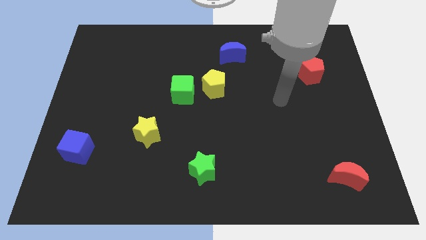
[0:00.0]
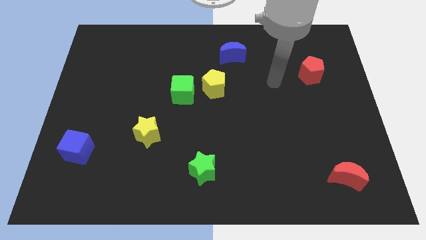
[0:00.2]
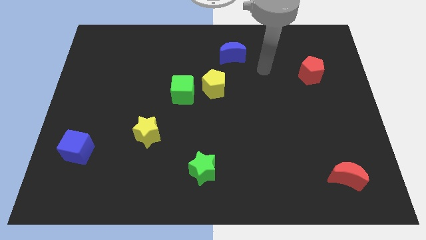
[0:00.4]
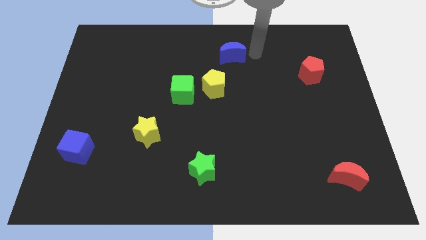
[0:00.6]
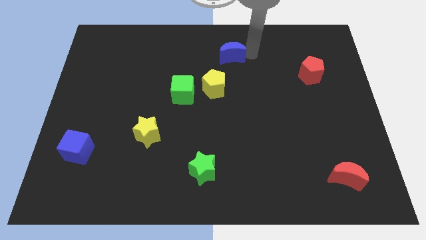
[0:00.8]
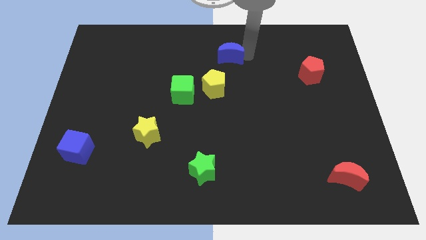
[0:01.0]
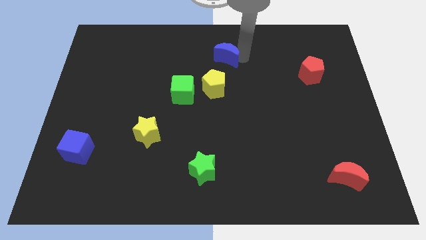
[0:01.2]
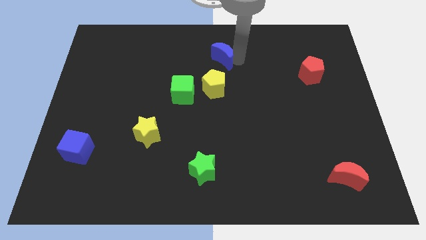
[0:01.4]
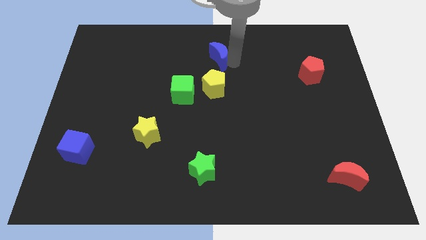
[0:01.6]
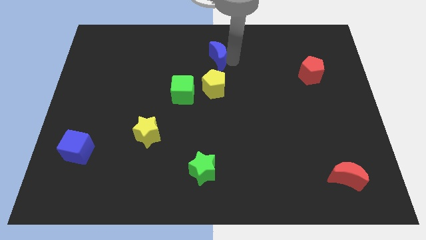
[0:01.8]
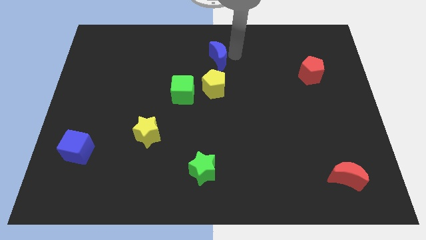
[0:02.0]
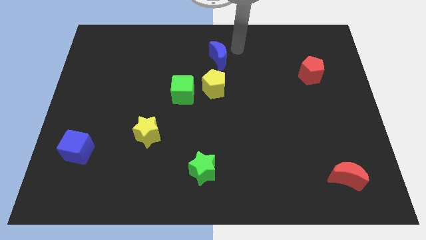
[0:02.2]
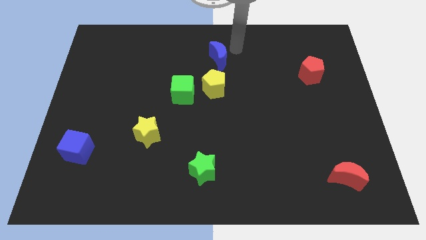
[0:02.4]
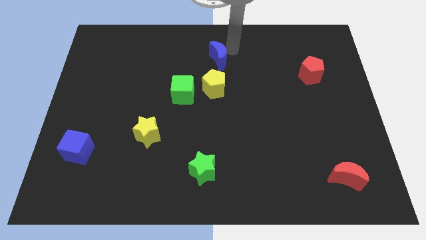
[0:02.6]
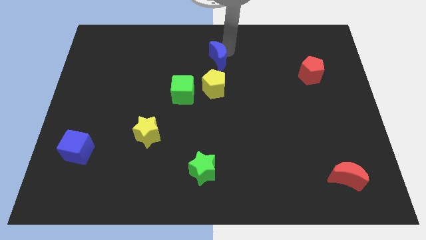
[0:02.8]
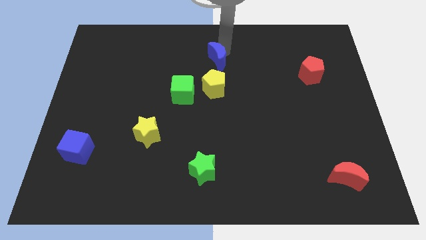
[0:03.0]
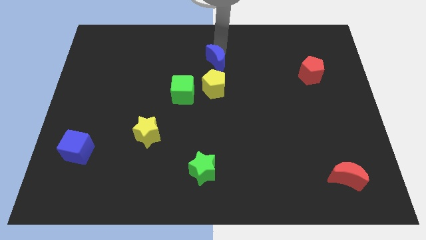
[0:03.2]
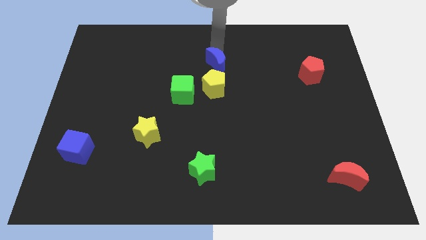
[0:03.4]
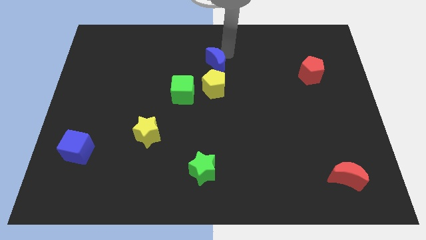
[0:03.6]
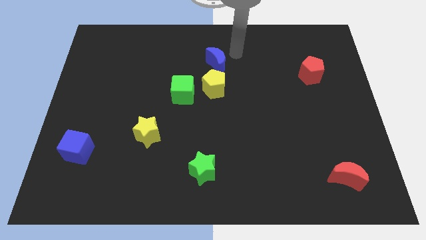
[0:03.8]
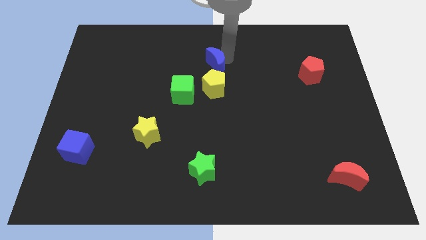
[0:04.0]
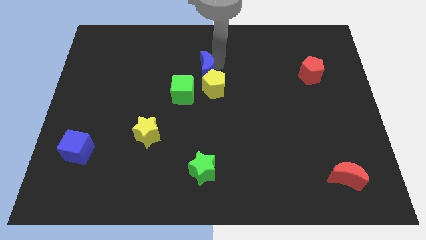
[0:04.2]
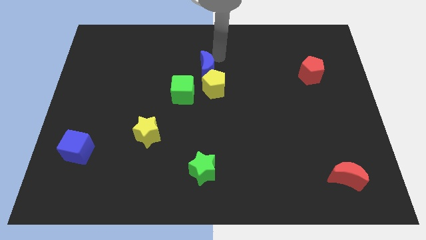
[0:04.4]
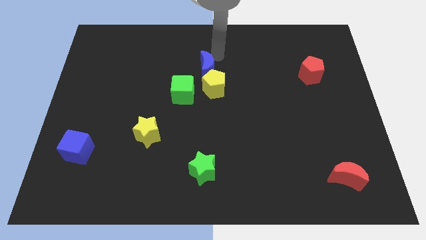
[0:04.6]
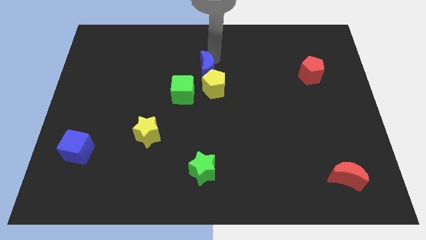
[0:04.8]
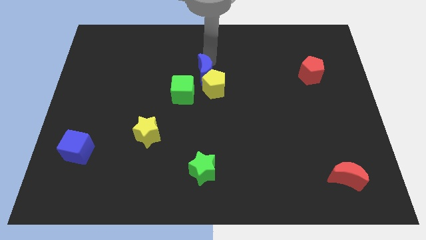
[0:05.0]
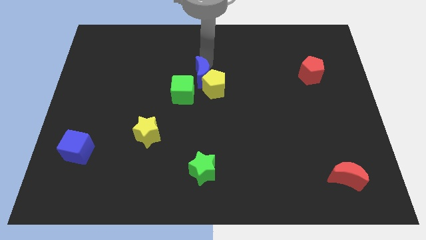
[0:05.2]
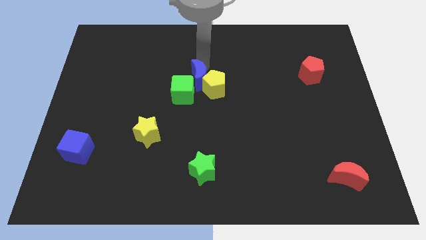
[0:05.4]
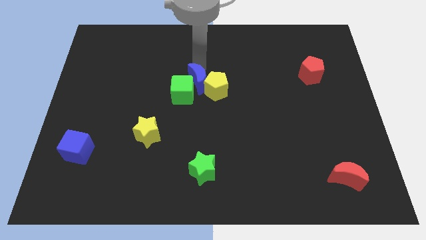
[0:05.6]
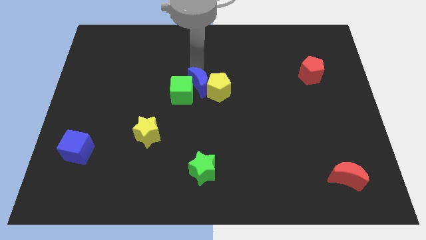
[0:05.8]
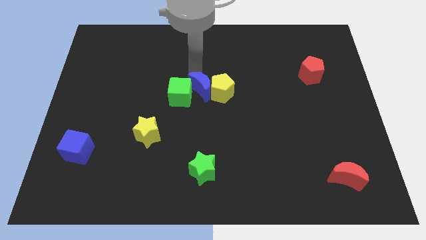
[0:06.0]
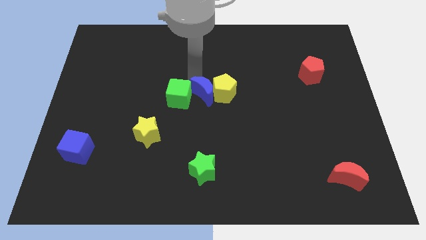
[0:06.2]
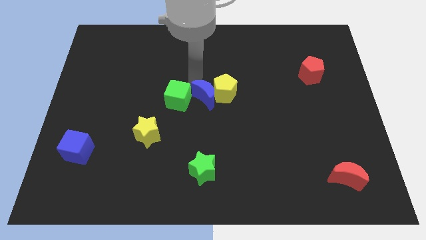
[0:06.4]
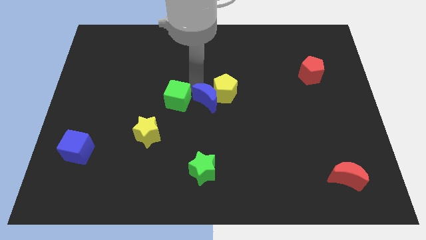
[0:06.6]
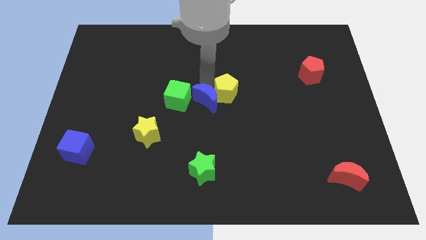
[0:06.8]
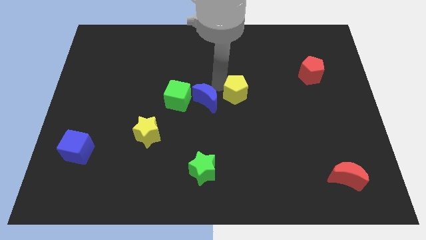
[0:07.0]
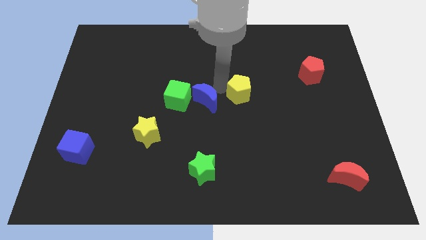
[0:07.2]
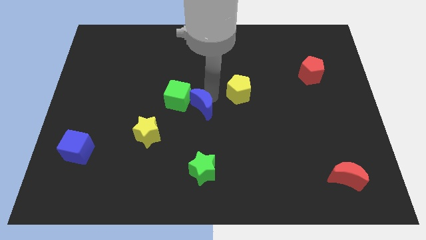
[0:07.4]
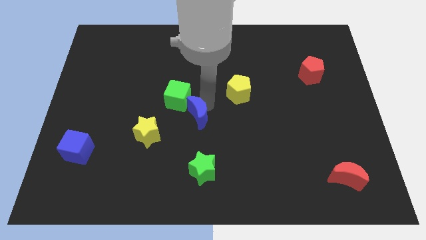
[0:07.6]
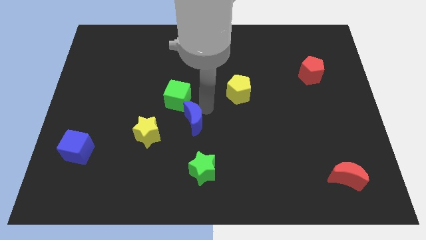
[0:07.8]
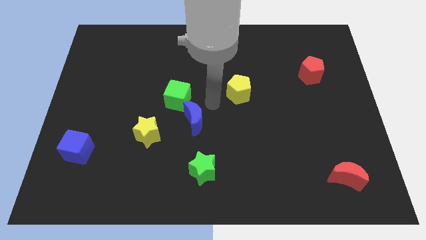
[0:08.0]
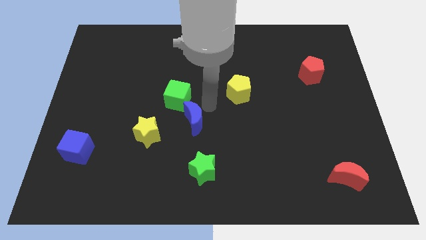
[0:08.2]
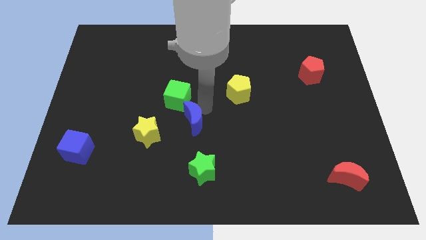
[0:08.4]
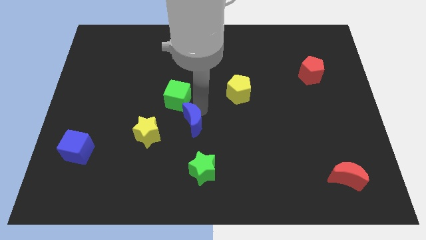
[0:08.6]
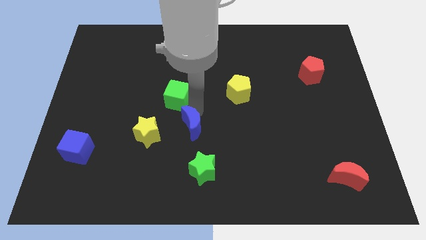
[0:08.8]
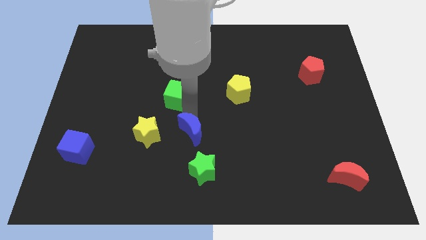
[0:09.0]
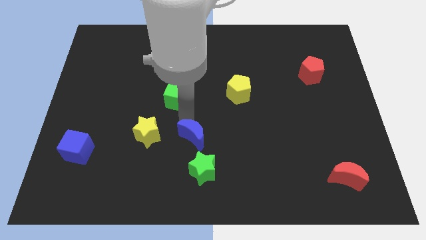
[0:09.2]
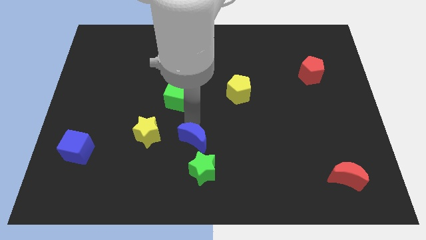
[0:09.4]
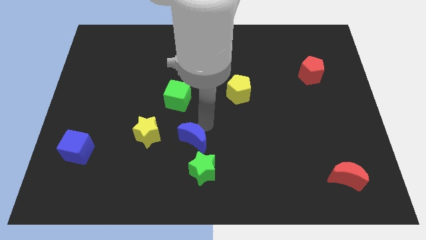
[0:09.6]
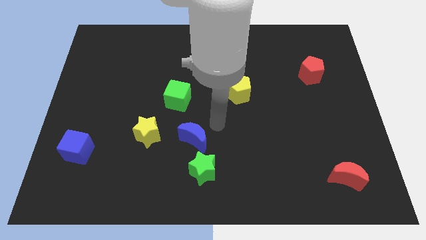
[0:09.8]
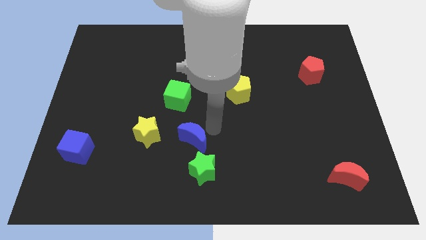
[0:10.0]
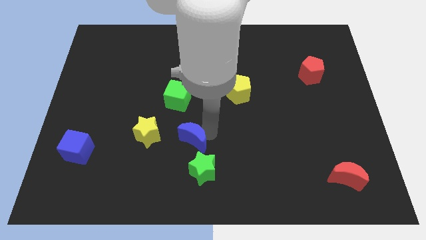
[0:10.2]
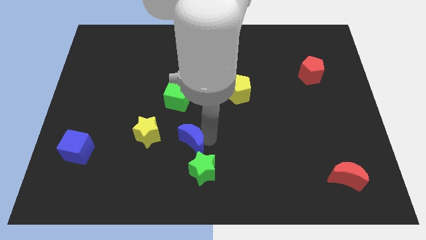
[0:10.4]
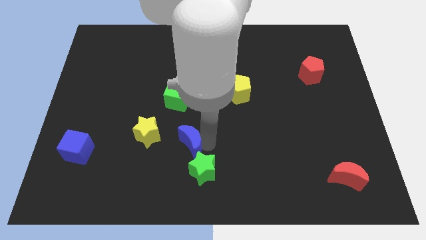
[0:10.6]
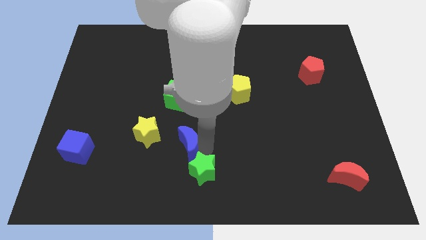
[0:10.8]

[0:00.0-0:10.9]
put the blue moon to the bottom right side of the yellow star

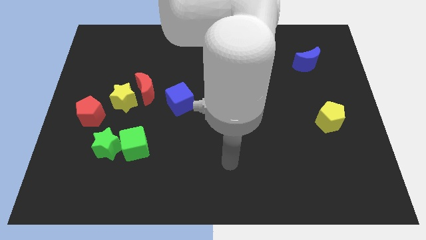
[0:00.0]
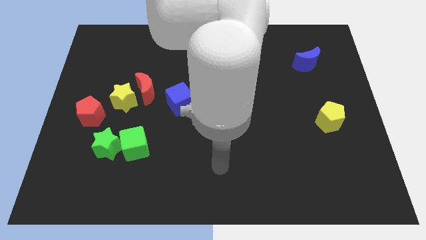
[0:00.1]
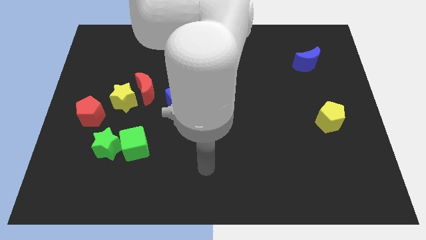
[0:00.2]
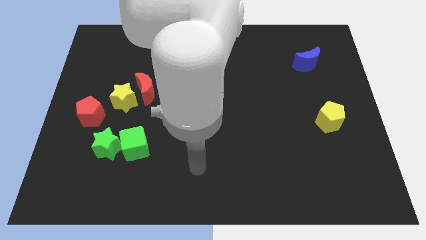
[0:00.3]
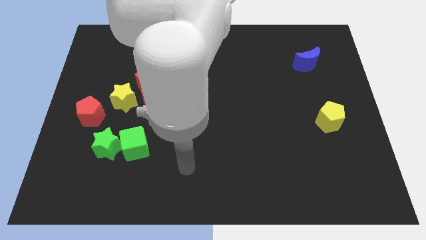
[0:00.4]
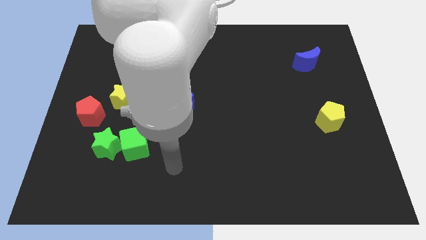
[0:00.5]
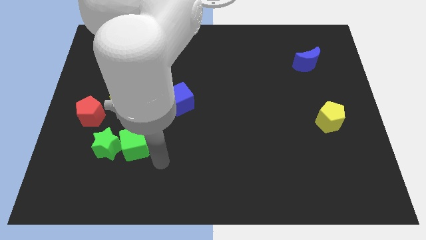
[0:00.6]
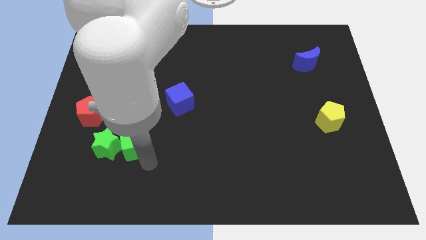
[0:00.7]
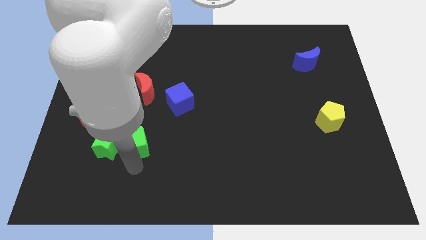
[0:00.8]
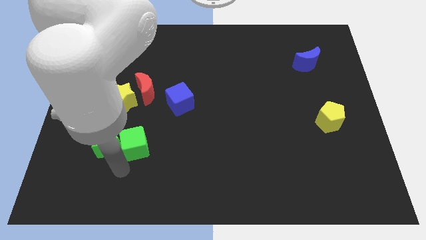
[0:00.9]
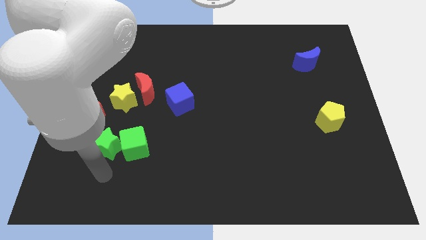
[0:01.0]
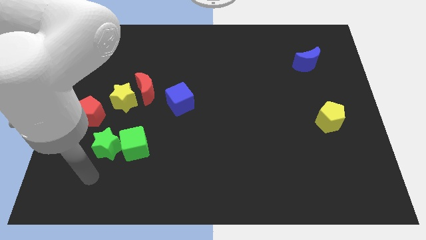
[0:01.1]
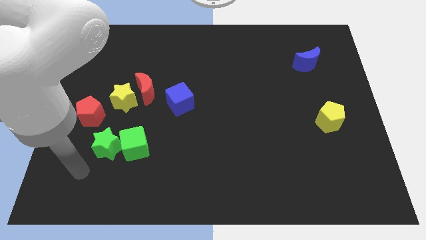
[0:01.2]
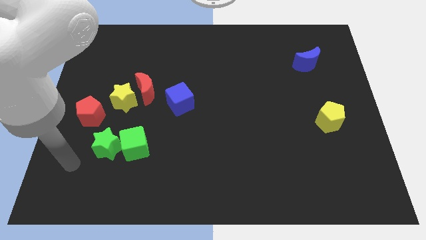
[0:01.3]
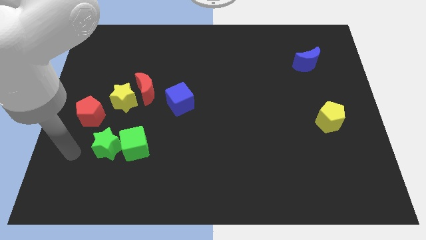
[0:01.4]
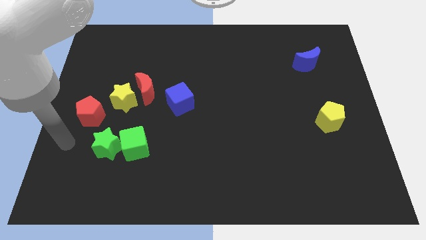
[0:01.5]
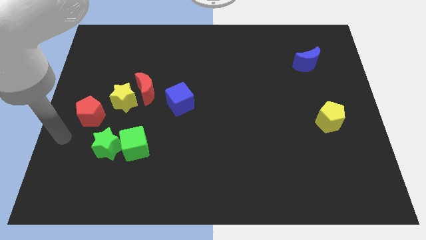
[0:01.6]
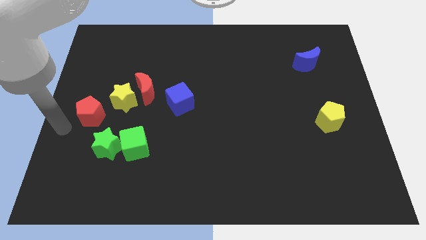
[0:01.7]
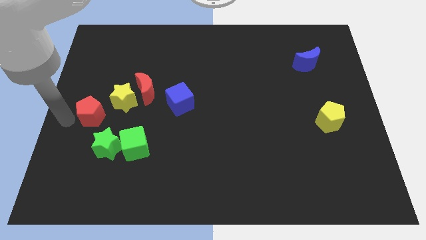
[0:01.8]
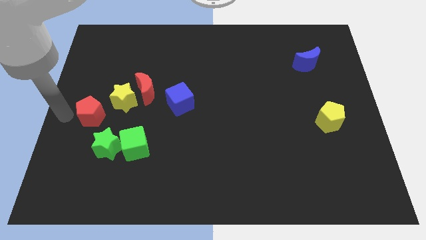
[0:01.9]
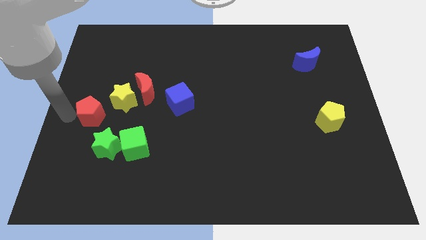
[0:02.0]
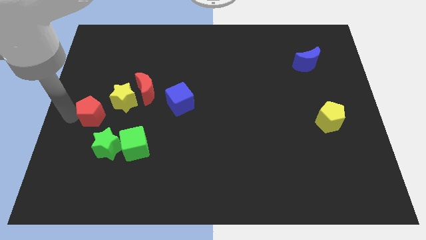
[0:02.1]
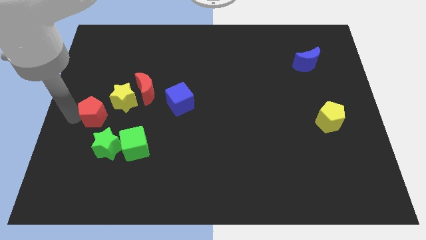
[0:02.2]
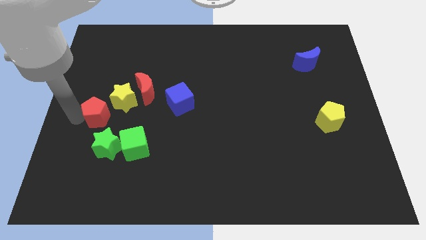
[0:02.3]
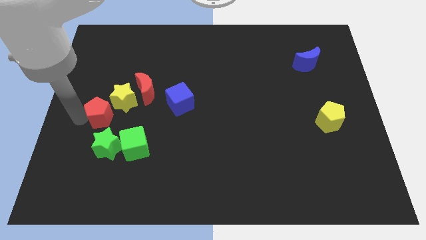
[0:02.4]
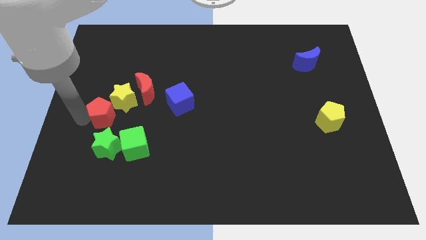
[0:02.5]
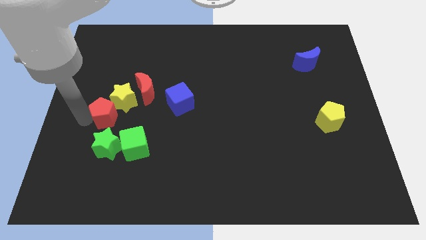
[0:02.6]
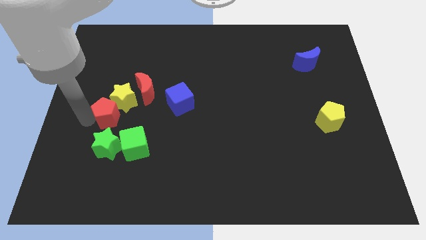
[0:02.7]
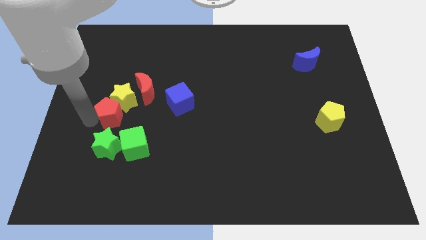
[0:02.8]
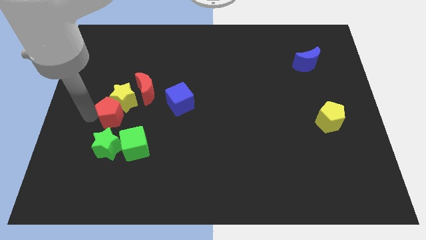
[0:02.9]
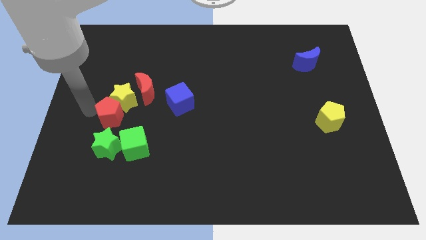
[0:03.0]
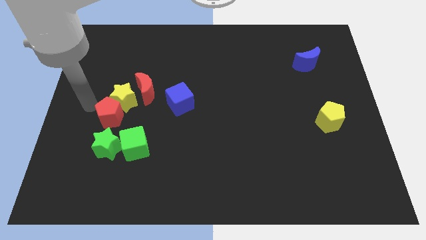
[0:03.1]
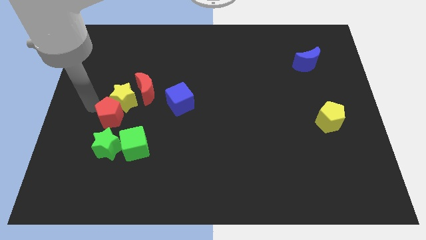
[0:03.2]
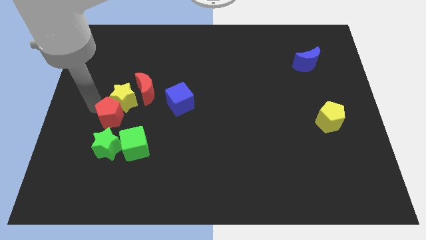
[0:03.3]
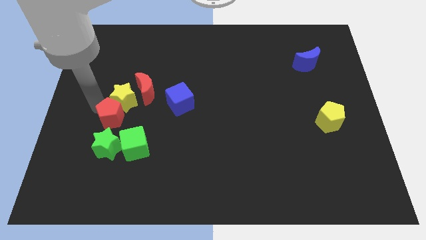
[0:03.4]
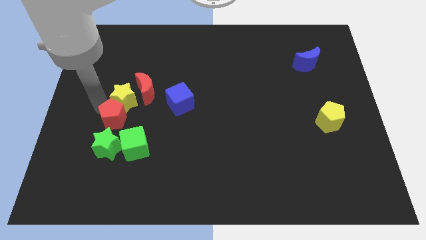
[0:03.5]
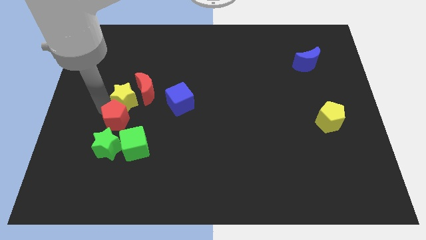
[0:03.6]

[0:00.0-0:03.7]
slide the red pentagon diagonally up and to the right of the green star
